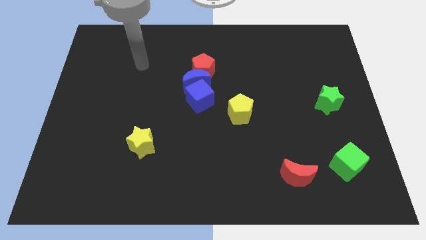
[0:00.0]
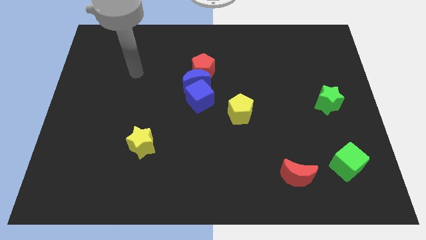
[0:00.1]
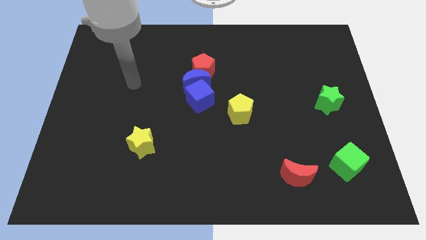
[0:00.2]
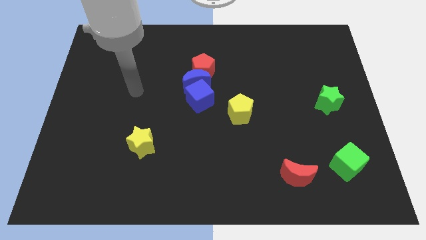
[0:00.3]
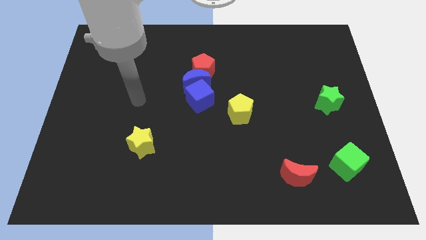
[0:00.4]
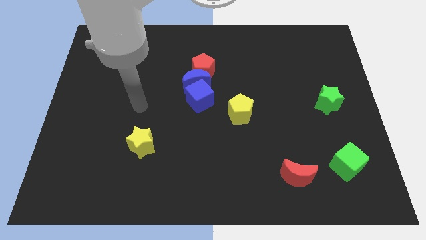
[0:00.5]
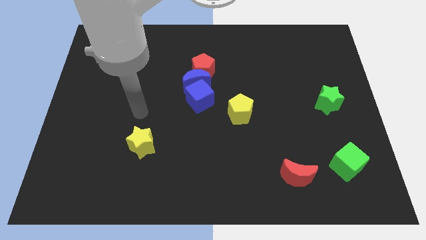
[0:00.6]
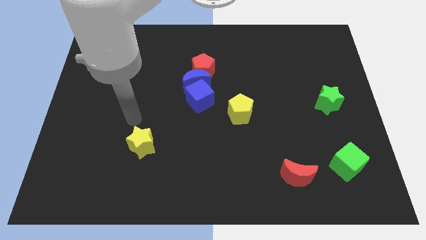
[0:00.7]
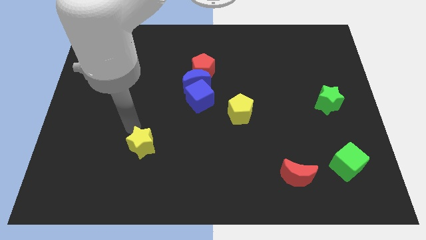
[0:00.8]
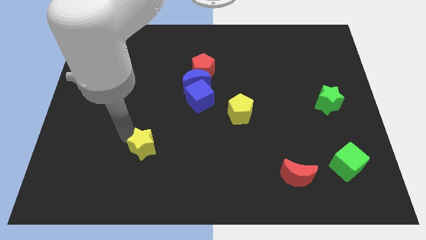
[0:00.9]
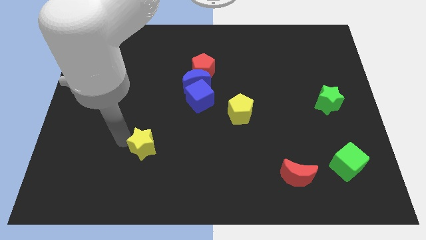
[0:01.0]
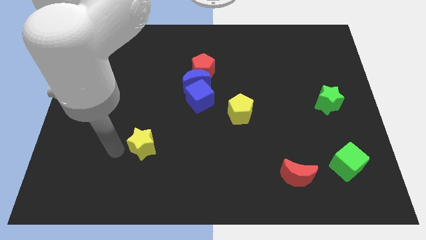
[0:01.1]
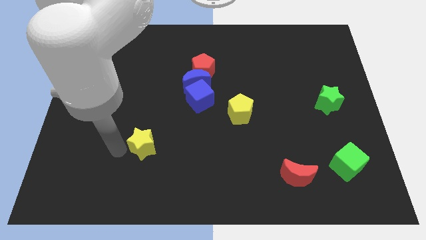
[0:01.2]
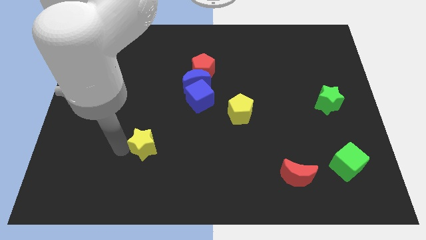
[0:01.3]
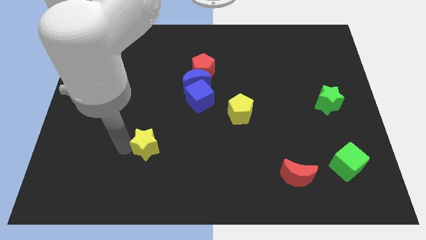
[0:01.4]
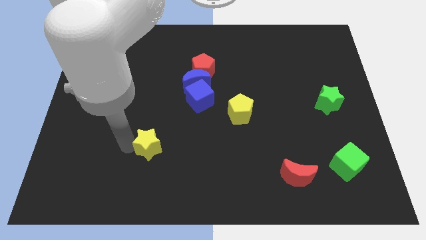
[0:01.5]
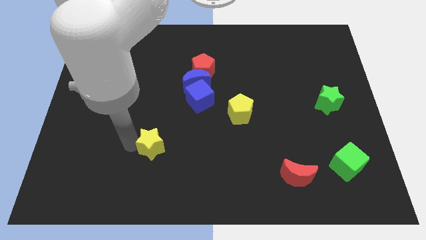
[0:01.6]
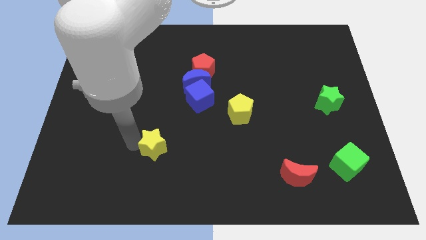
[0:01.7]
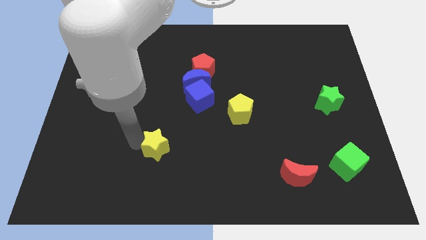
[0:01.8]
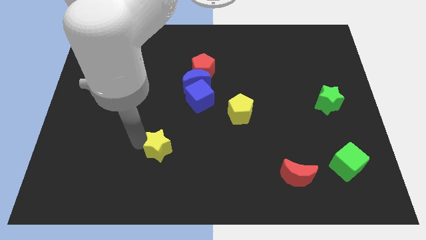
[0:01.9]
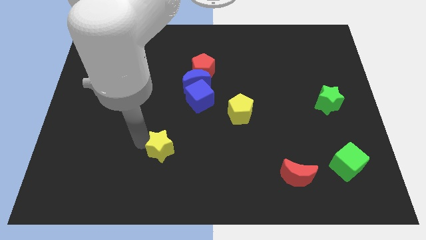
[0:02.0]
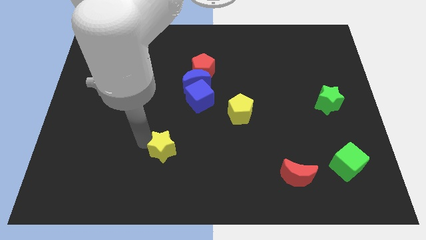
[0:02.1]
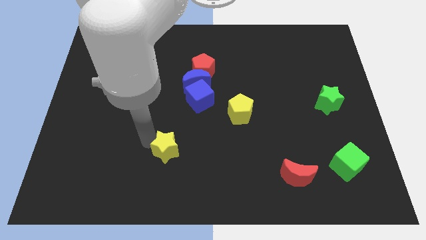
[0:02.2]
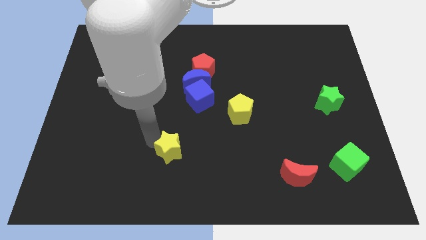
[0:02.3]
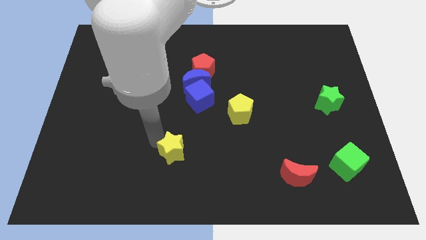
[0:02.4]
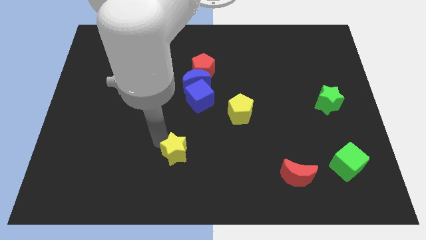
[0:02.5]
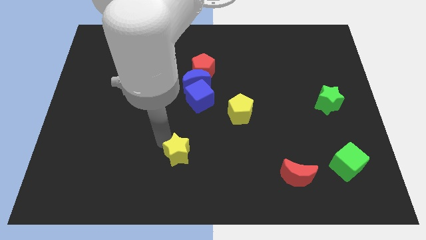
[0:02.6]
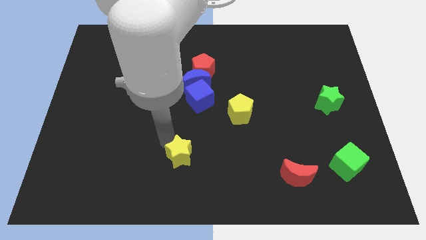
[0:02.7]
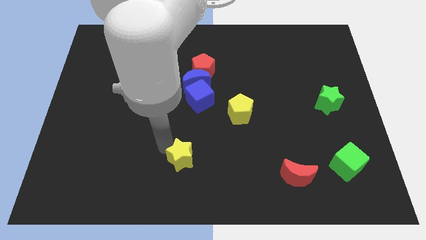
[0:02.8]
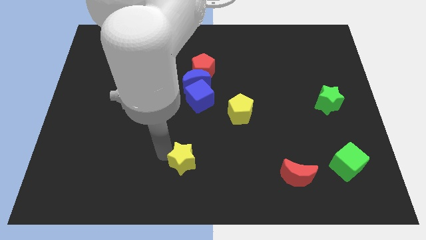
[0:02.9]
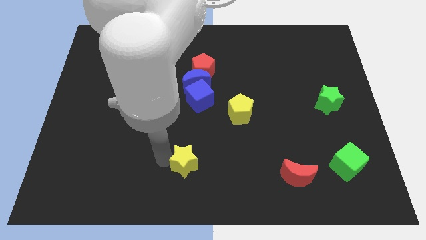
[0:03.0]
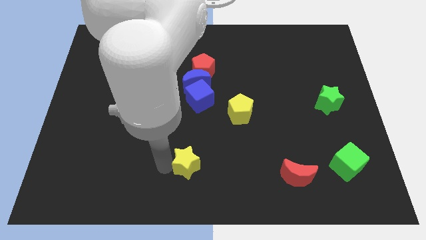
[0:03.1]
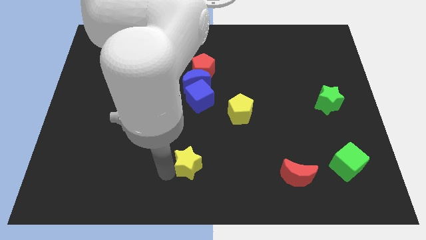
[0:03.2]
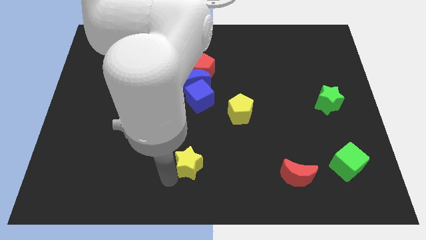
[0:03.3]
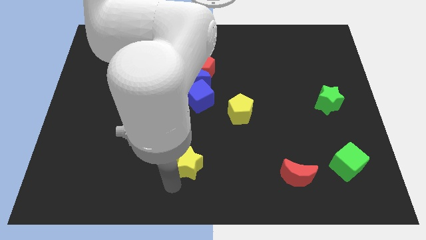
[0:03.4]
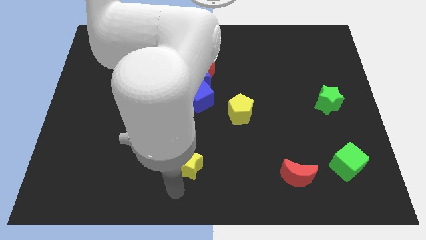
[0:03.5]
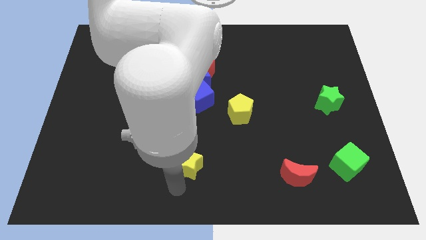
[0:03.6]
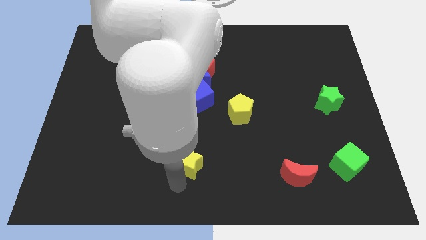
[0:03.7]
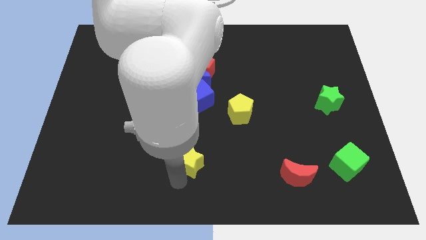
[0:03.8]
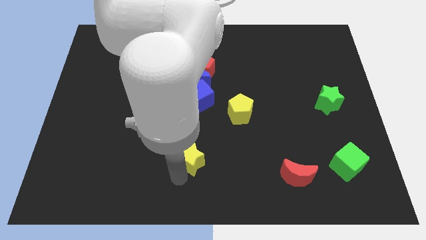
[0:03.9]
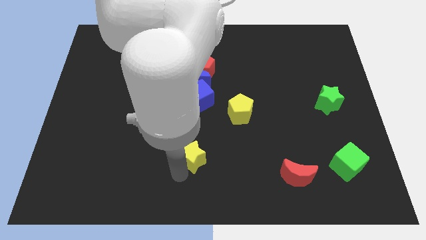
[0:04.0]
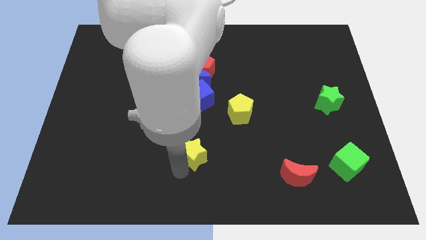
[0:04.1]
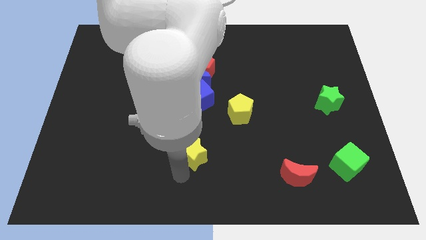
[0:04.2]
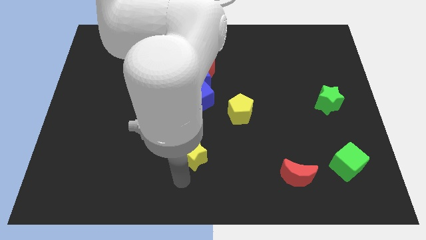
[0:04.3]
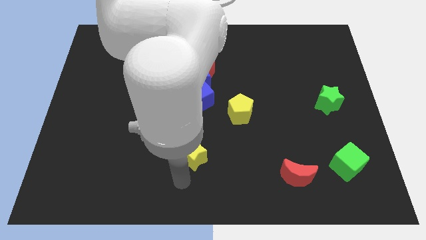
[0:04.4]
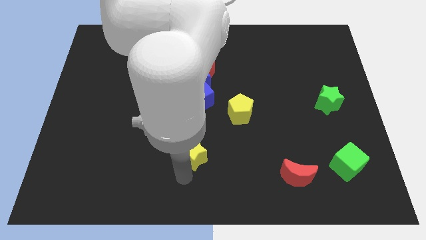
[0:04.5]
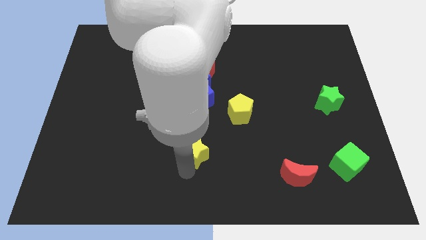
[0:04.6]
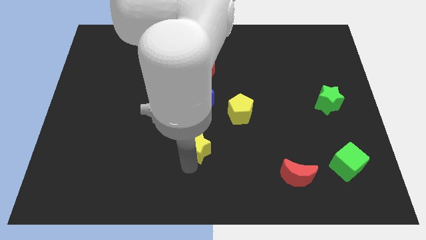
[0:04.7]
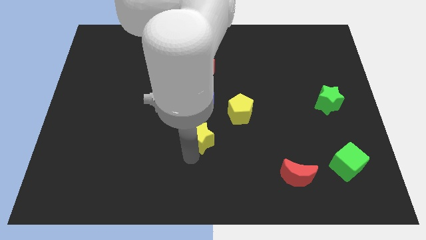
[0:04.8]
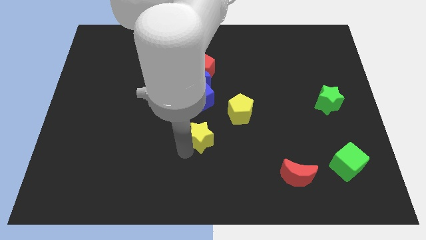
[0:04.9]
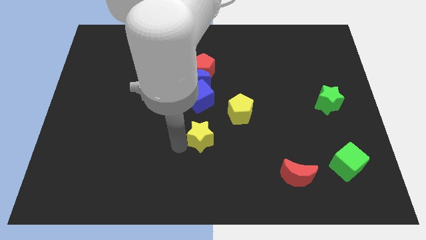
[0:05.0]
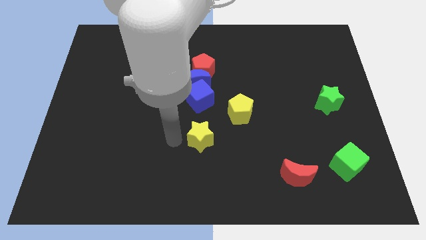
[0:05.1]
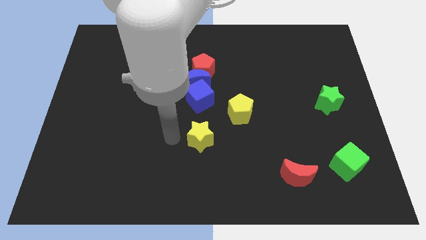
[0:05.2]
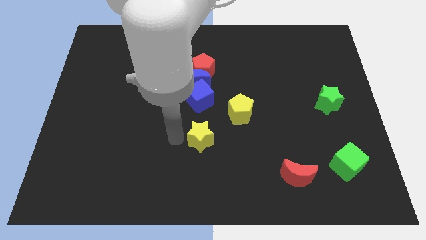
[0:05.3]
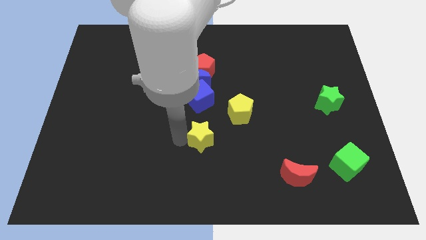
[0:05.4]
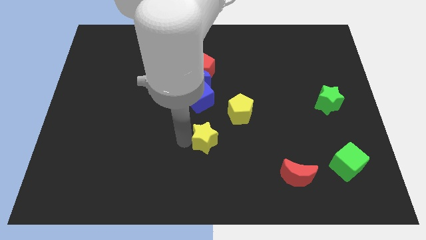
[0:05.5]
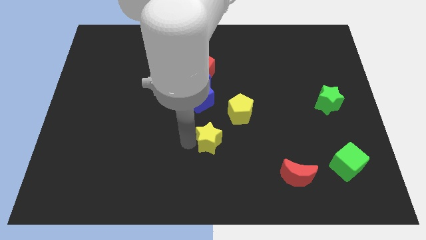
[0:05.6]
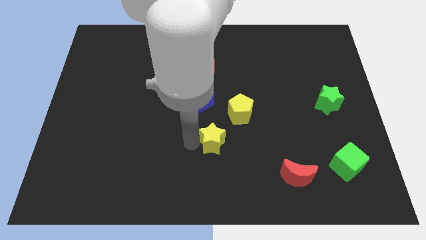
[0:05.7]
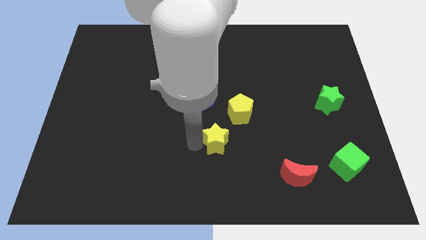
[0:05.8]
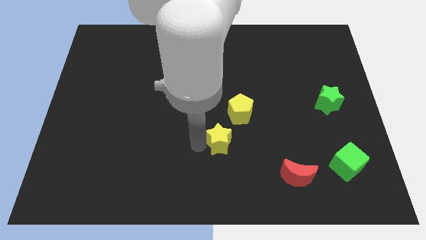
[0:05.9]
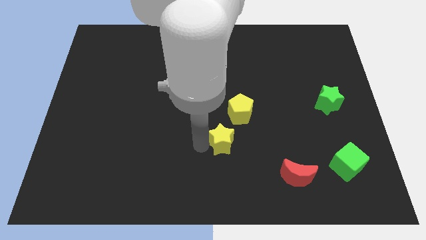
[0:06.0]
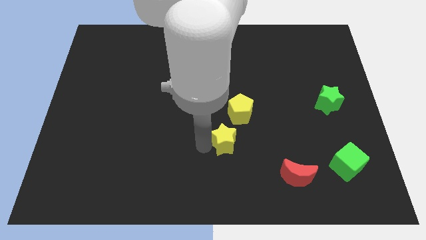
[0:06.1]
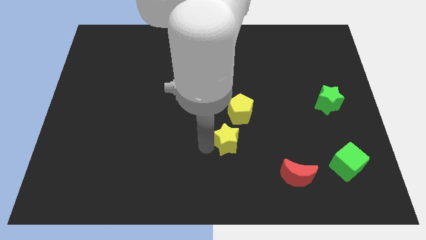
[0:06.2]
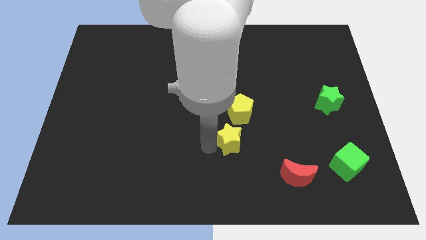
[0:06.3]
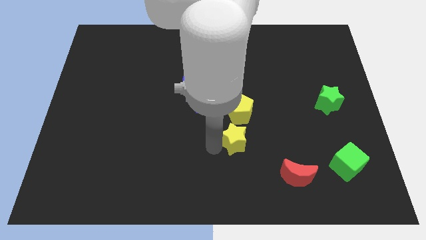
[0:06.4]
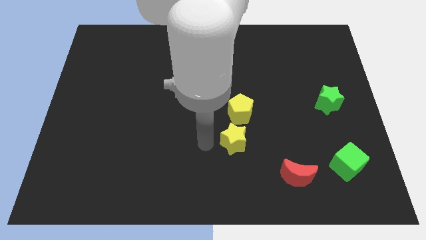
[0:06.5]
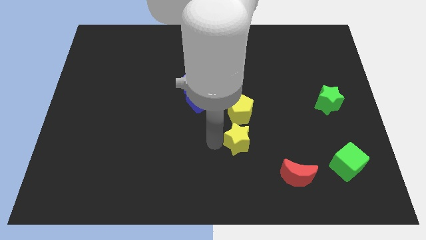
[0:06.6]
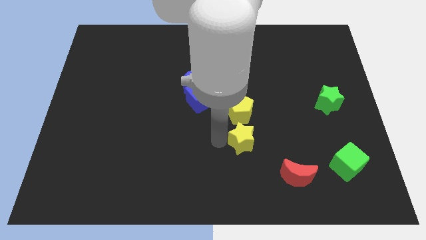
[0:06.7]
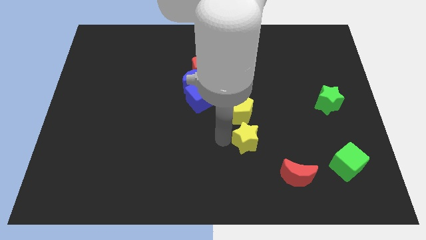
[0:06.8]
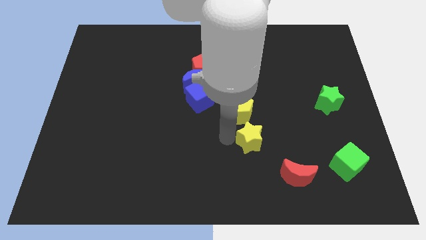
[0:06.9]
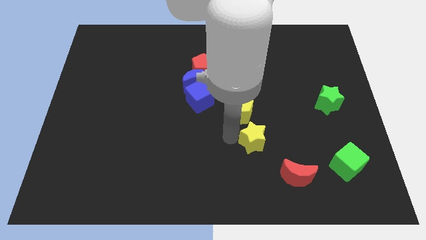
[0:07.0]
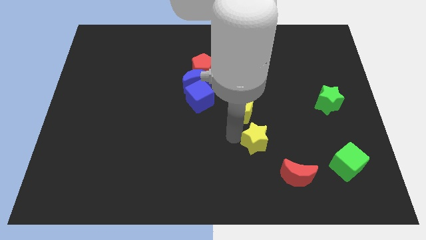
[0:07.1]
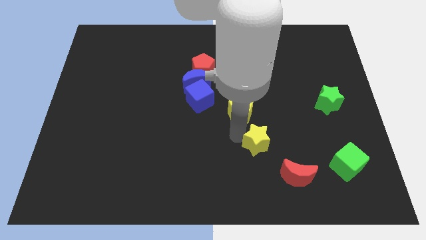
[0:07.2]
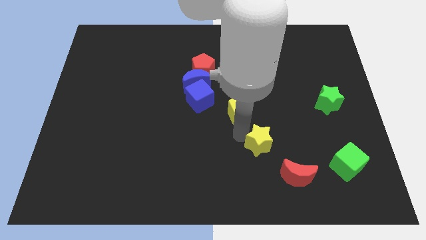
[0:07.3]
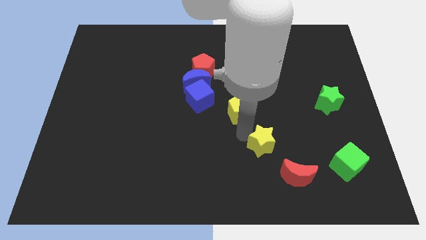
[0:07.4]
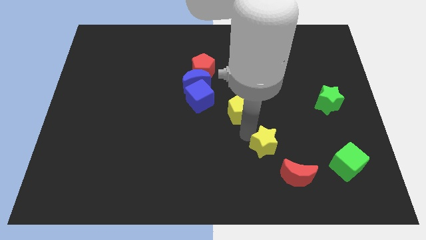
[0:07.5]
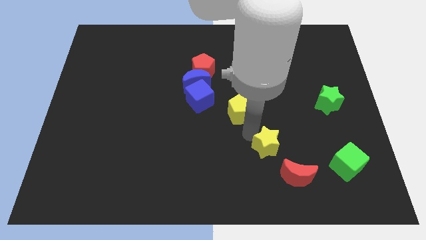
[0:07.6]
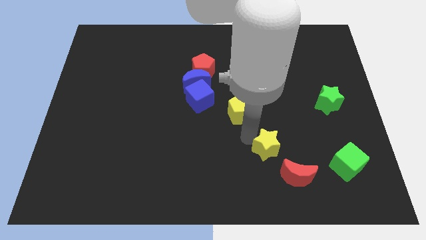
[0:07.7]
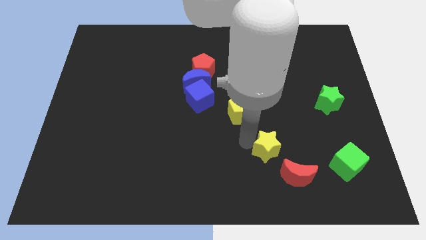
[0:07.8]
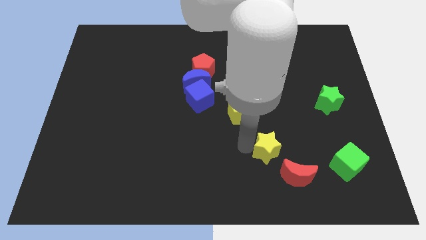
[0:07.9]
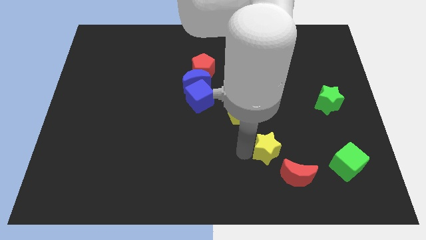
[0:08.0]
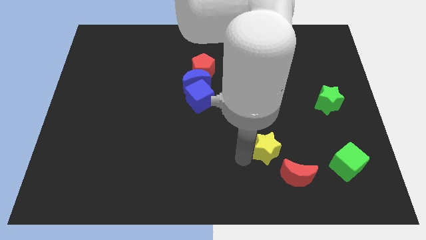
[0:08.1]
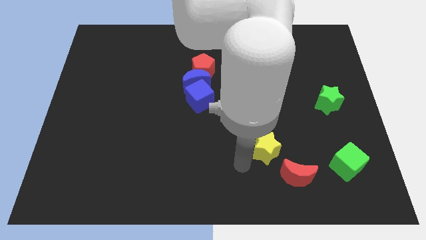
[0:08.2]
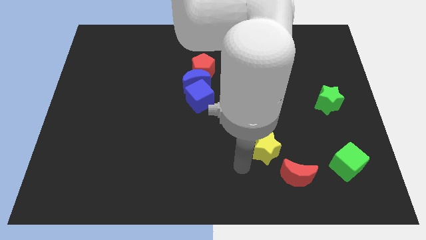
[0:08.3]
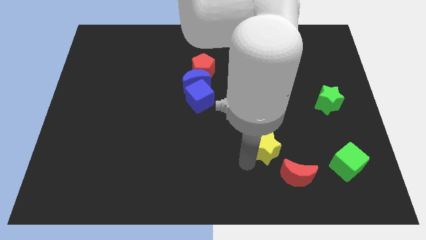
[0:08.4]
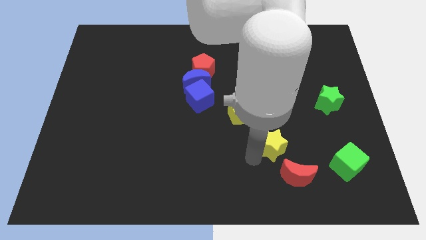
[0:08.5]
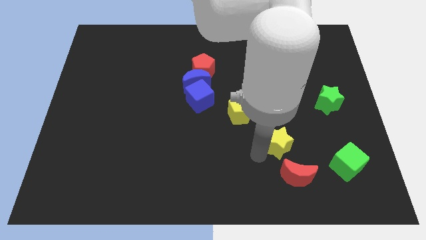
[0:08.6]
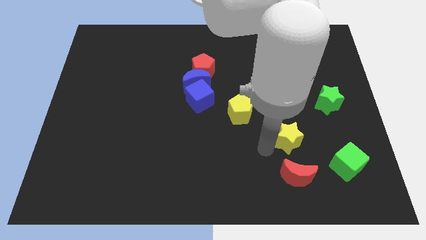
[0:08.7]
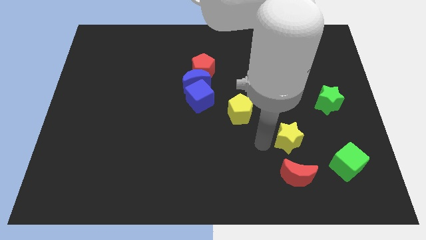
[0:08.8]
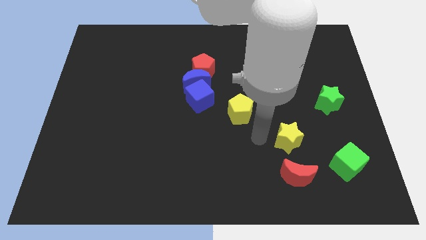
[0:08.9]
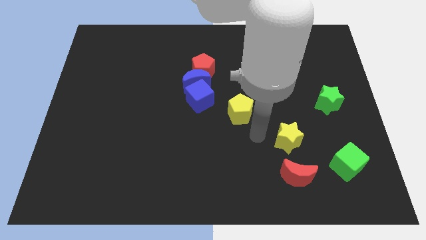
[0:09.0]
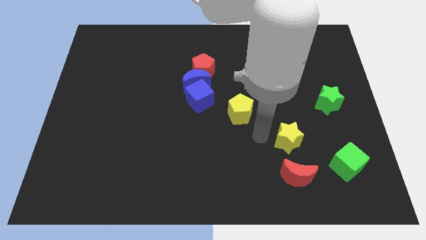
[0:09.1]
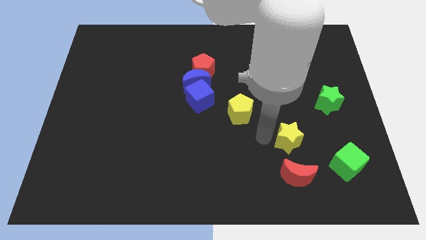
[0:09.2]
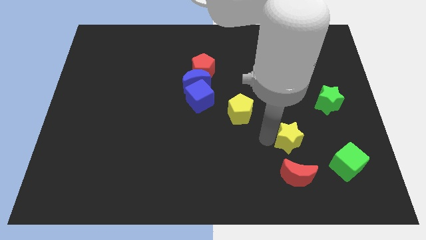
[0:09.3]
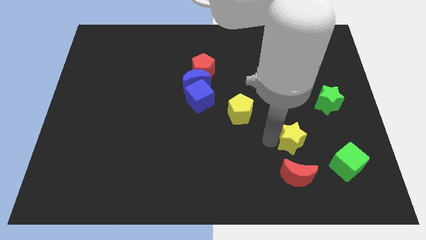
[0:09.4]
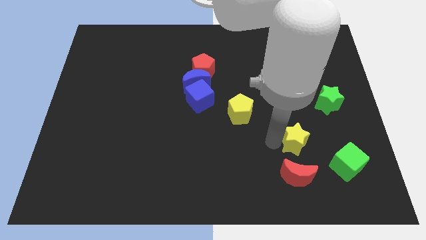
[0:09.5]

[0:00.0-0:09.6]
push the yellow star to the top left of the green cube
